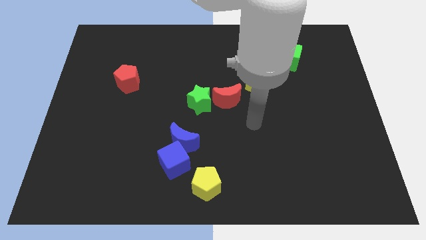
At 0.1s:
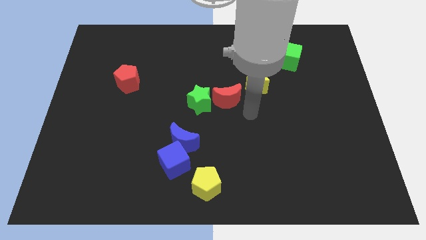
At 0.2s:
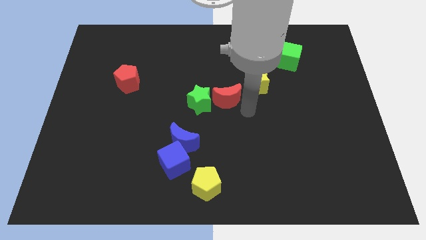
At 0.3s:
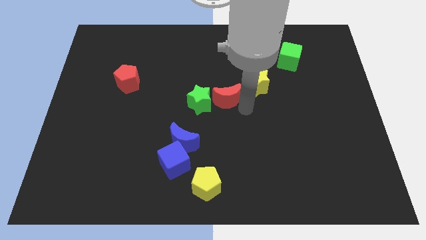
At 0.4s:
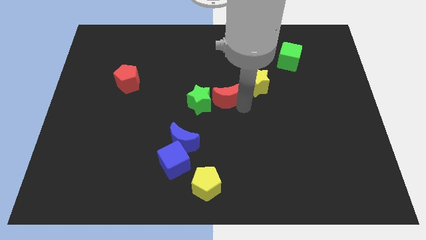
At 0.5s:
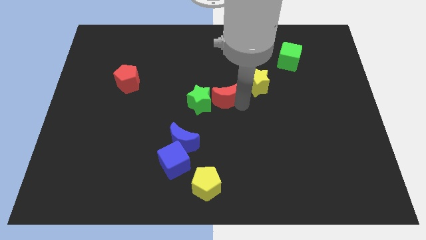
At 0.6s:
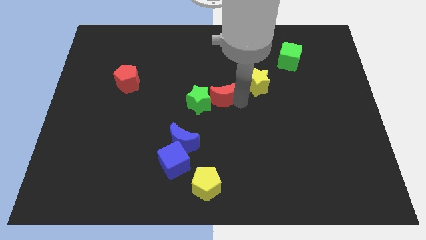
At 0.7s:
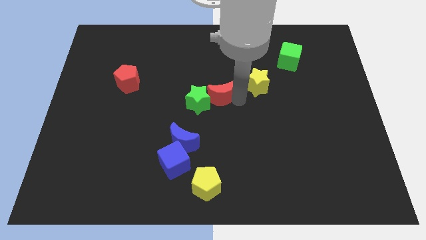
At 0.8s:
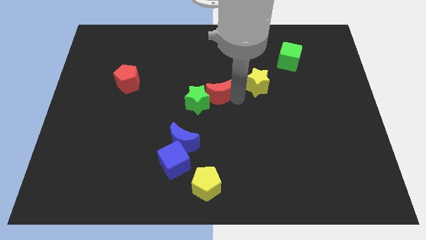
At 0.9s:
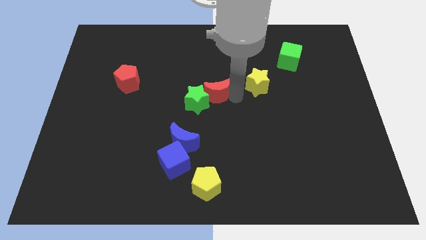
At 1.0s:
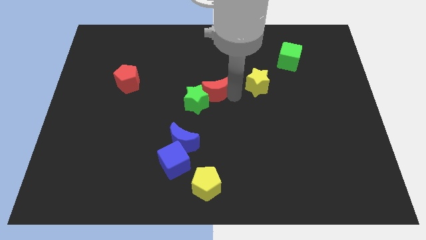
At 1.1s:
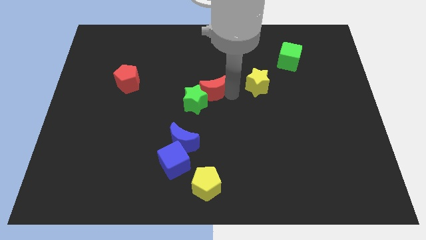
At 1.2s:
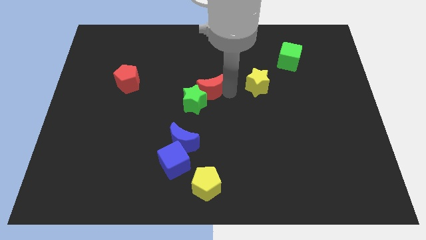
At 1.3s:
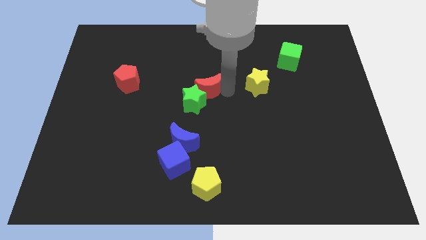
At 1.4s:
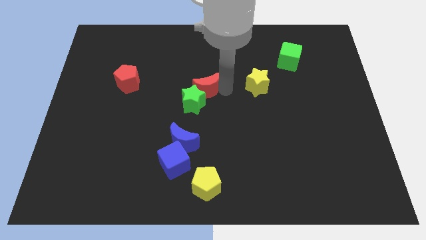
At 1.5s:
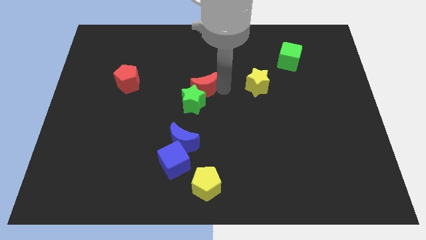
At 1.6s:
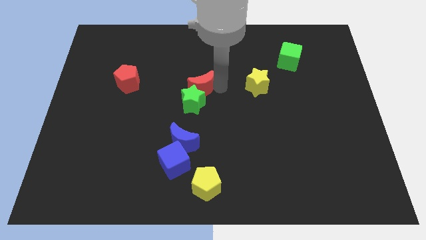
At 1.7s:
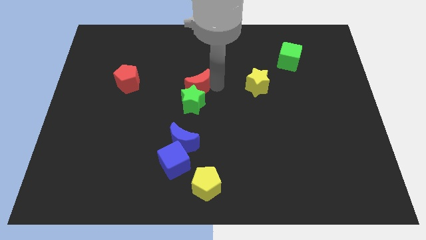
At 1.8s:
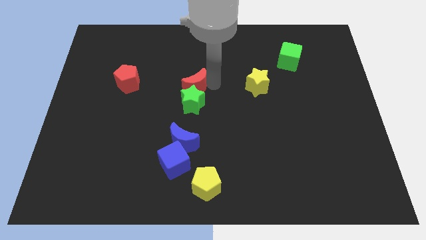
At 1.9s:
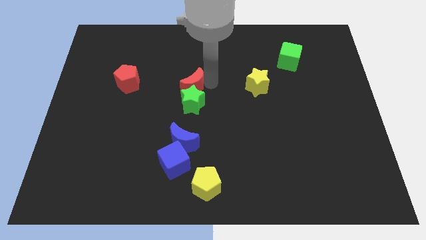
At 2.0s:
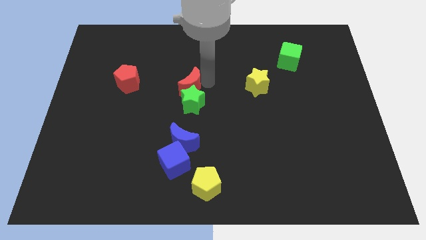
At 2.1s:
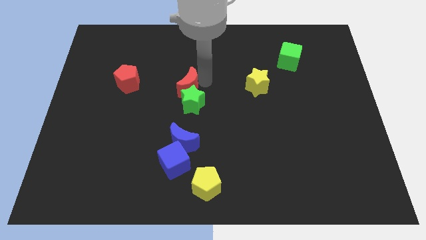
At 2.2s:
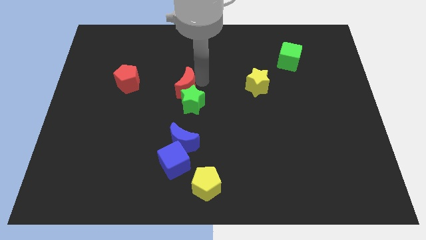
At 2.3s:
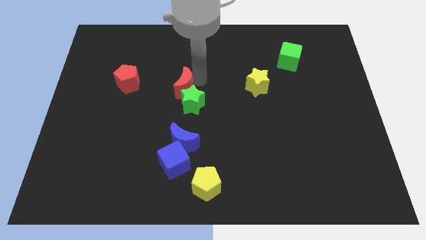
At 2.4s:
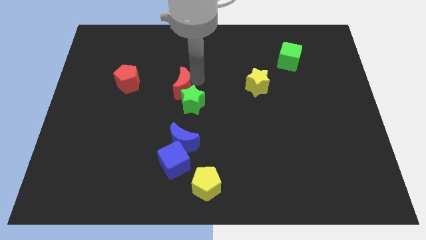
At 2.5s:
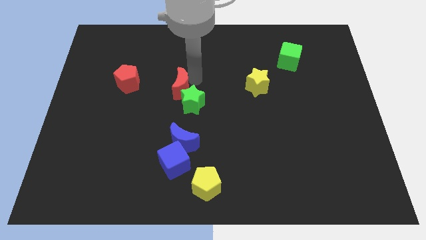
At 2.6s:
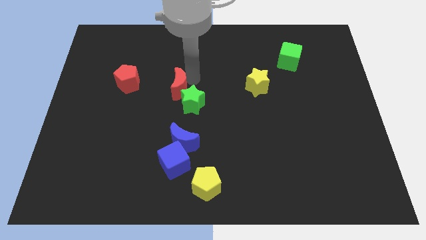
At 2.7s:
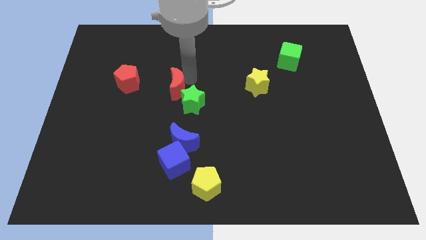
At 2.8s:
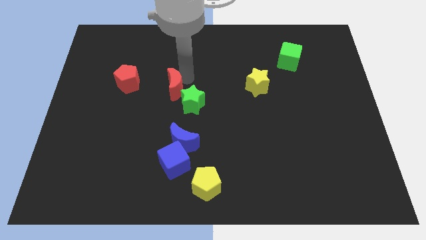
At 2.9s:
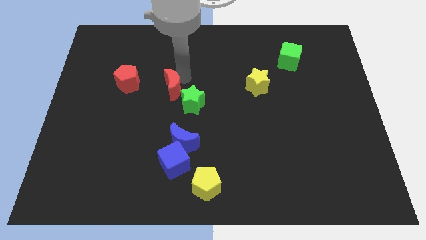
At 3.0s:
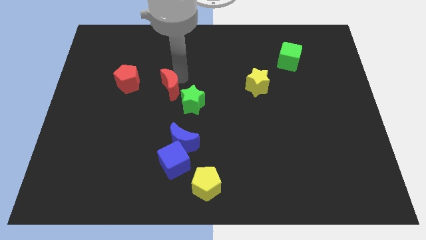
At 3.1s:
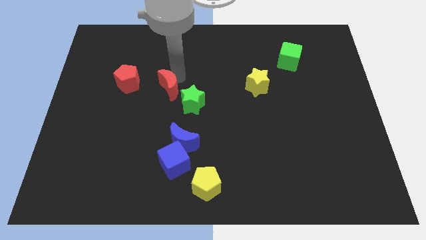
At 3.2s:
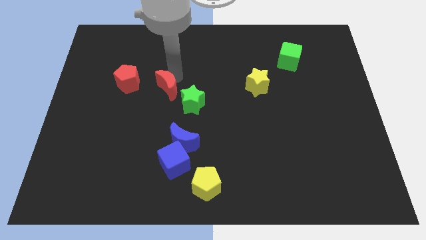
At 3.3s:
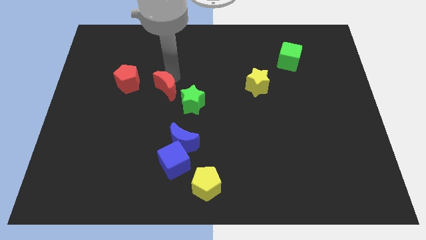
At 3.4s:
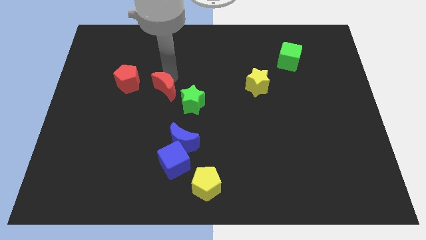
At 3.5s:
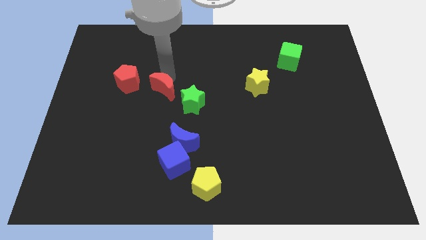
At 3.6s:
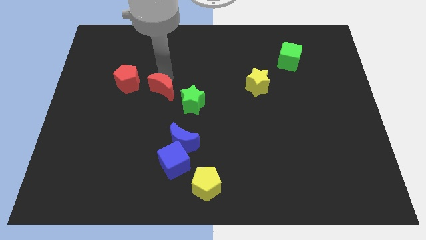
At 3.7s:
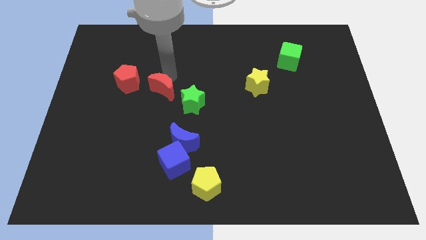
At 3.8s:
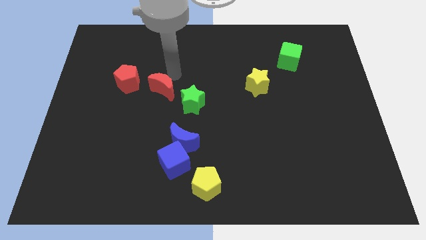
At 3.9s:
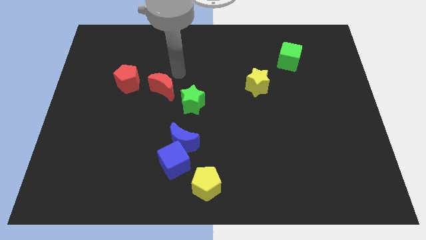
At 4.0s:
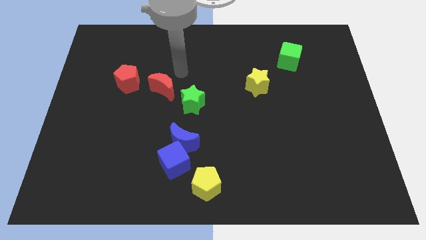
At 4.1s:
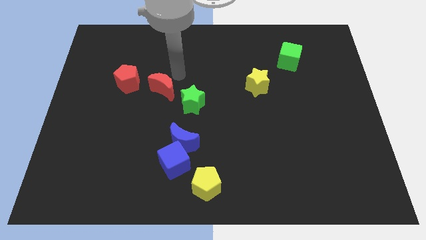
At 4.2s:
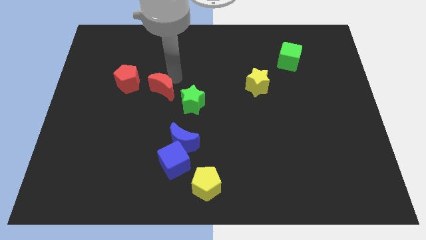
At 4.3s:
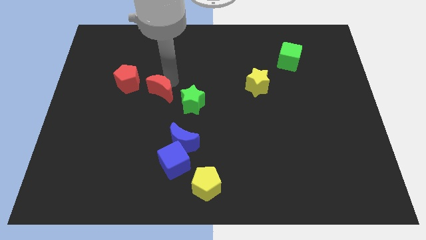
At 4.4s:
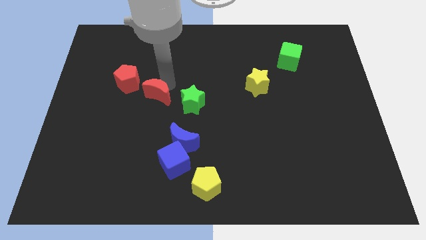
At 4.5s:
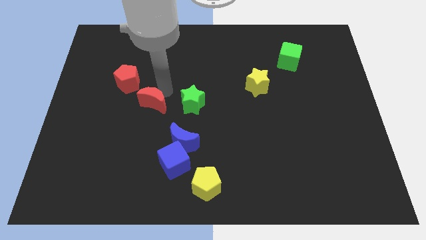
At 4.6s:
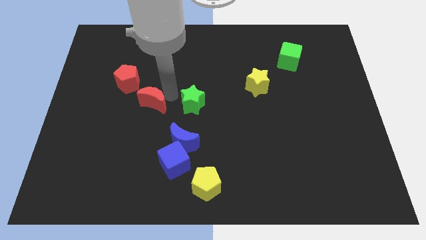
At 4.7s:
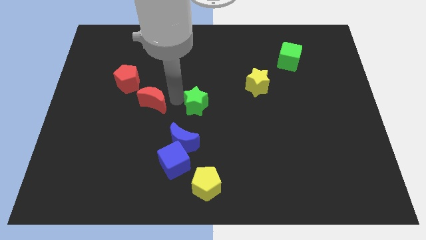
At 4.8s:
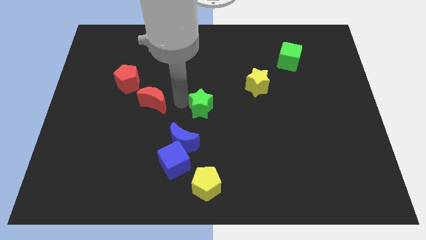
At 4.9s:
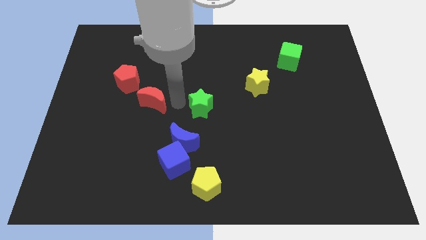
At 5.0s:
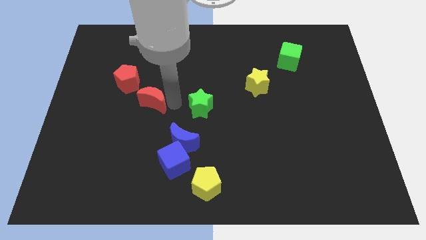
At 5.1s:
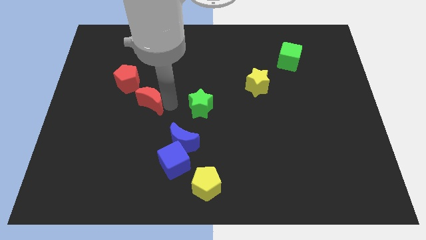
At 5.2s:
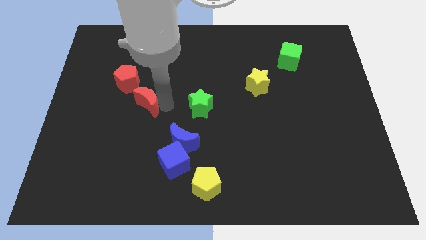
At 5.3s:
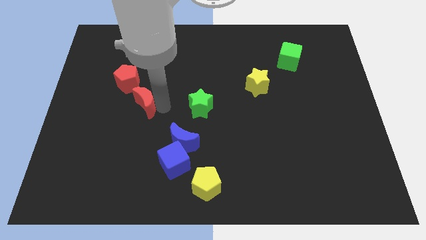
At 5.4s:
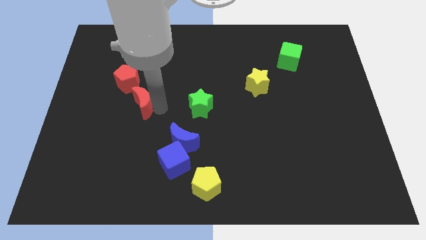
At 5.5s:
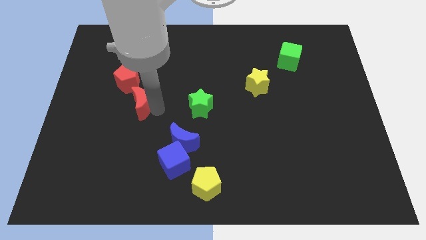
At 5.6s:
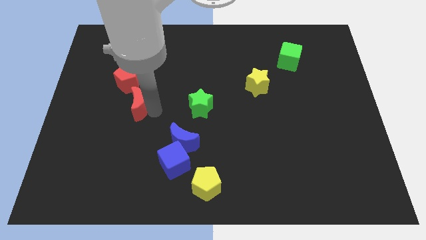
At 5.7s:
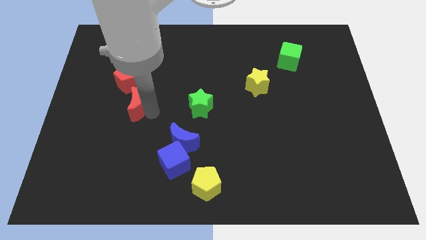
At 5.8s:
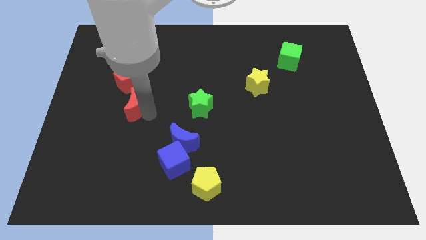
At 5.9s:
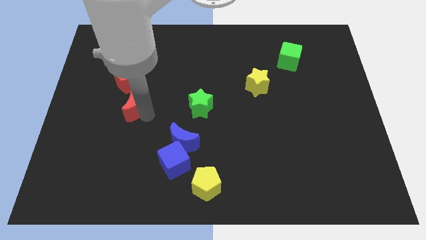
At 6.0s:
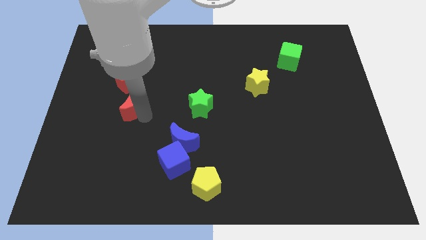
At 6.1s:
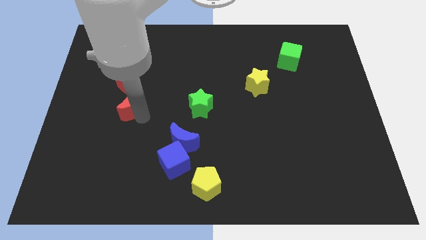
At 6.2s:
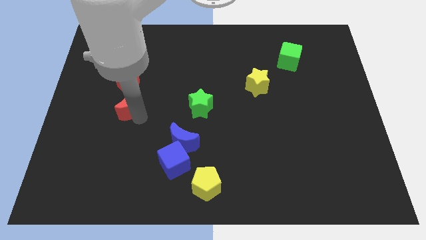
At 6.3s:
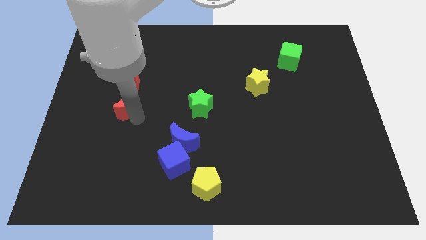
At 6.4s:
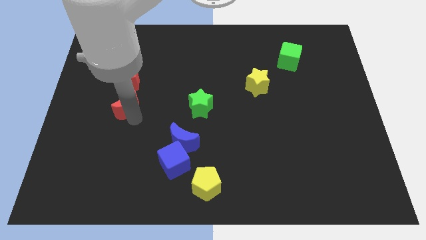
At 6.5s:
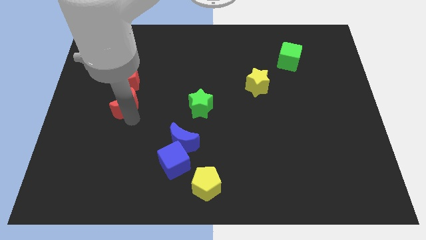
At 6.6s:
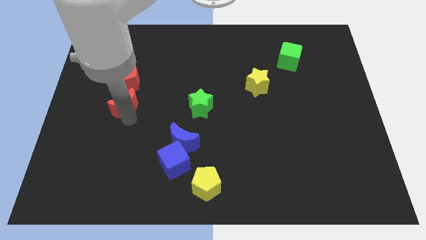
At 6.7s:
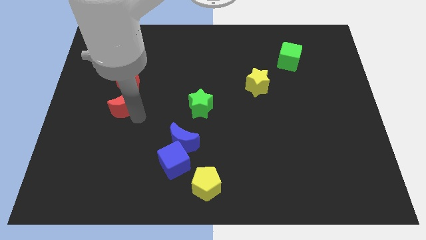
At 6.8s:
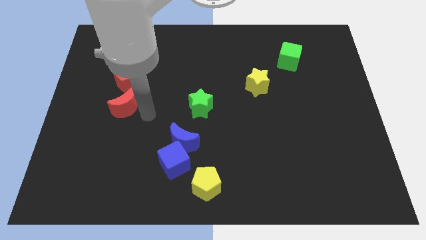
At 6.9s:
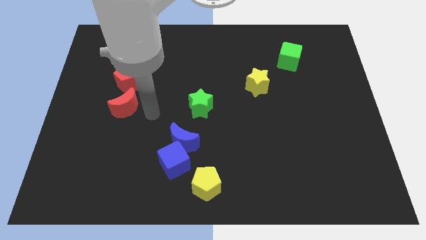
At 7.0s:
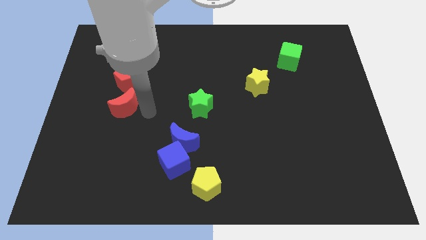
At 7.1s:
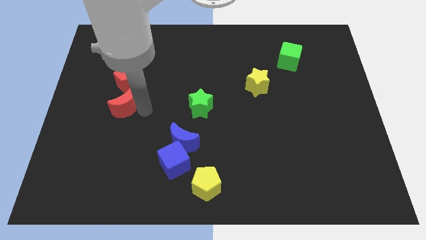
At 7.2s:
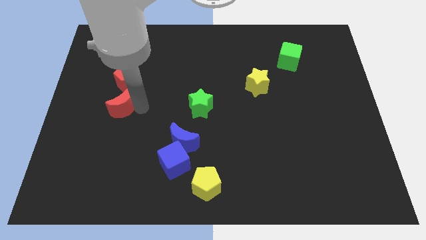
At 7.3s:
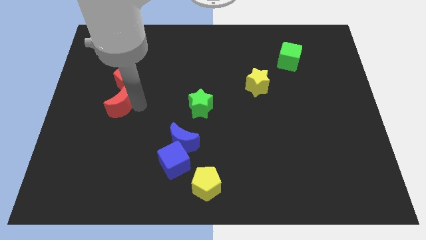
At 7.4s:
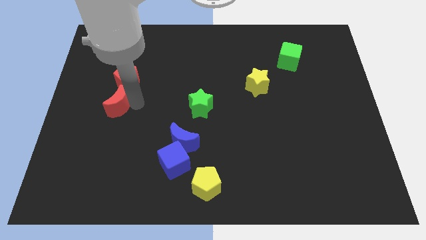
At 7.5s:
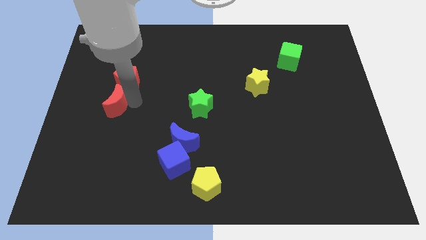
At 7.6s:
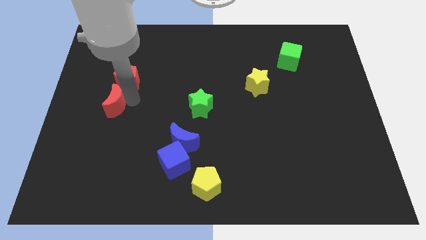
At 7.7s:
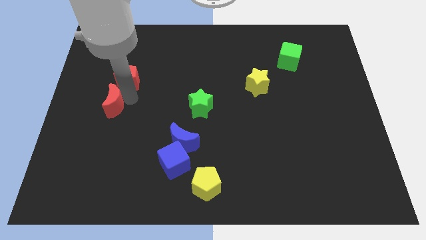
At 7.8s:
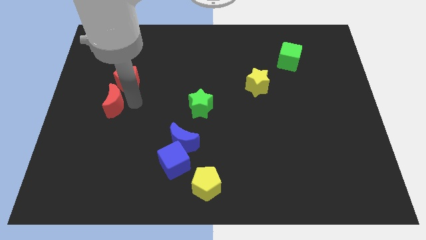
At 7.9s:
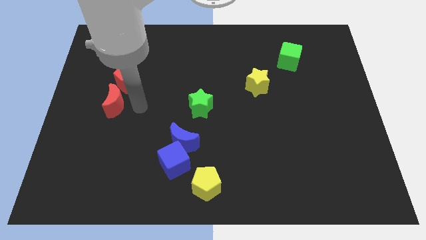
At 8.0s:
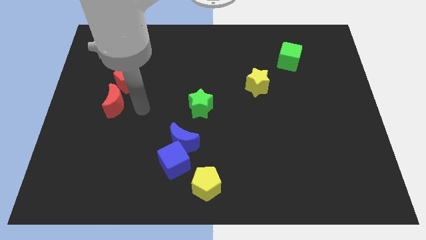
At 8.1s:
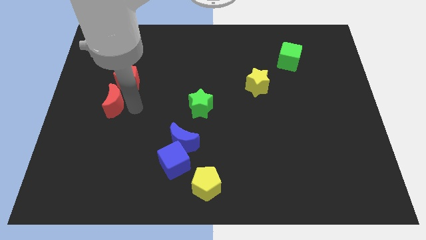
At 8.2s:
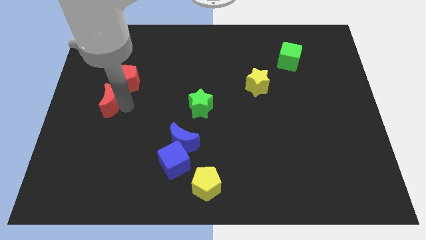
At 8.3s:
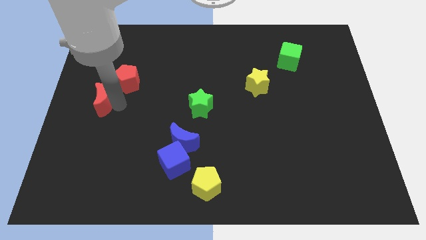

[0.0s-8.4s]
put the red moon to the left side of the board
